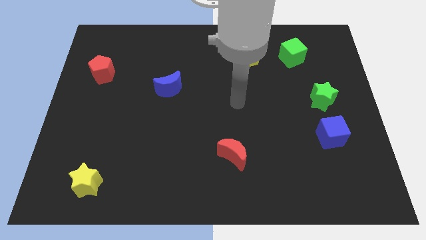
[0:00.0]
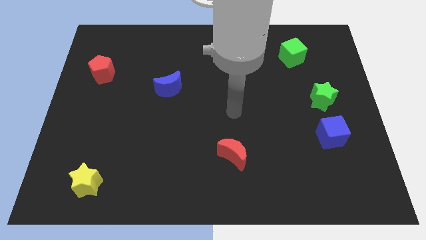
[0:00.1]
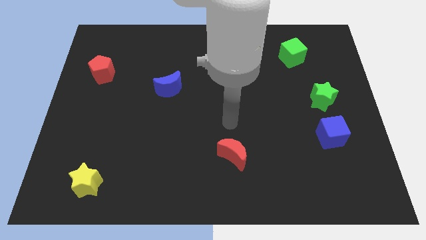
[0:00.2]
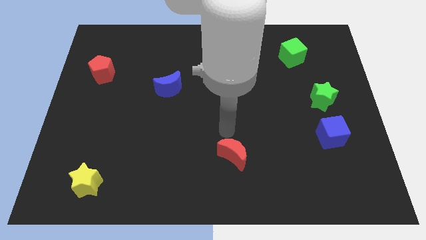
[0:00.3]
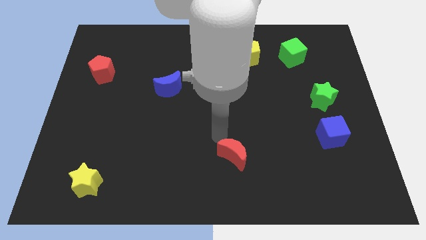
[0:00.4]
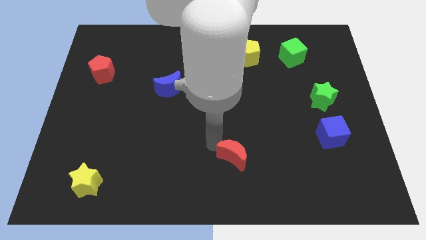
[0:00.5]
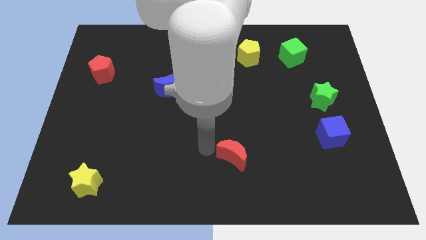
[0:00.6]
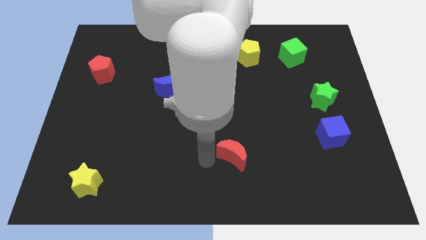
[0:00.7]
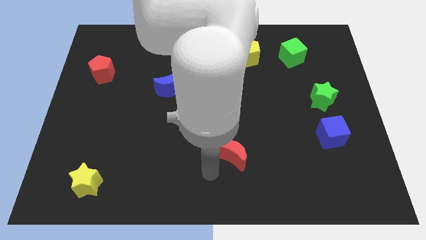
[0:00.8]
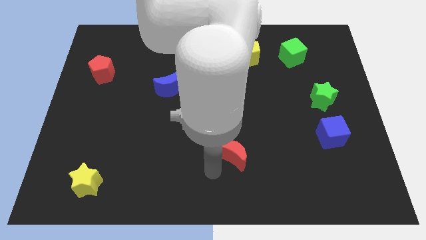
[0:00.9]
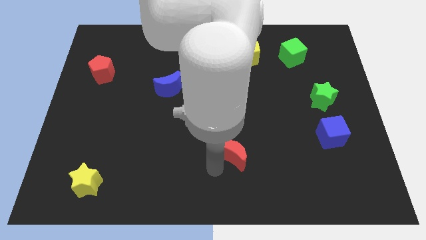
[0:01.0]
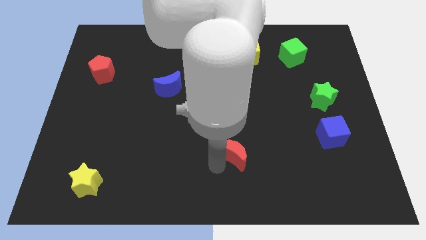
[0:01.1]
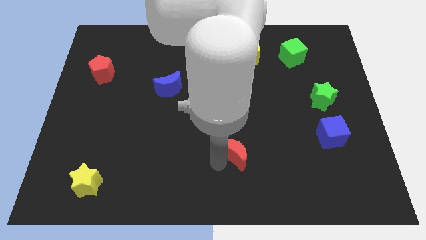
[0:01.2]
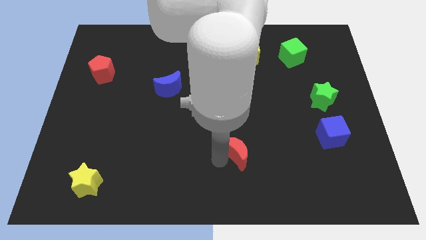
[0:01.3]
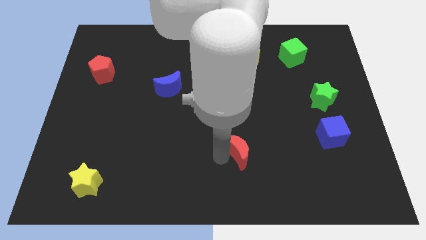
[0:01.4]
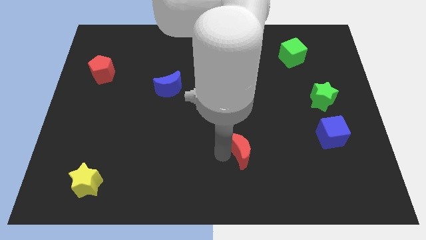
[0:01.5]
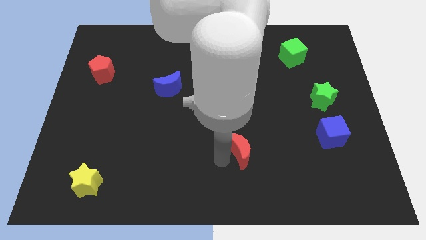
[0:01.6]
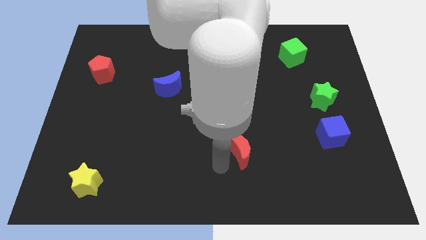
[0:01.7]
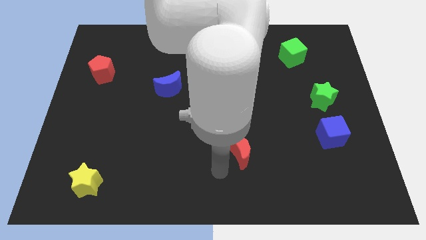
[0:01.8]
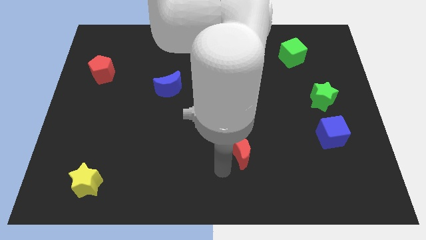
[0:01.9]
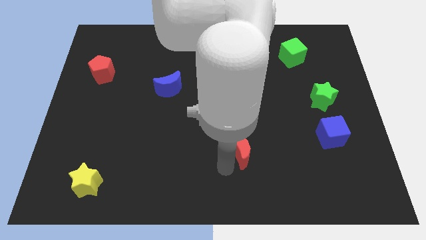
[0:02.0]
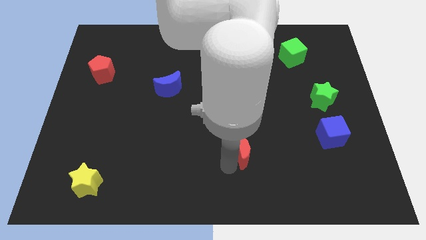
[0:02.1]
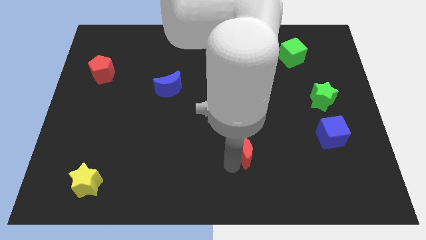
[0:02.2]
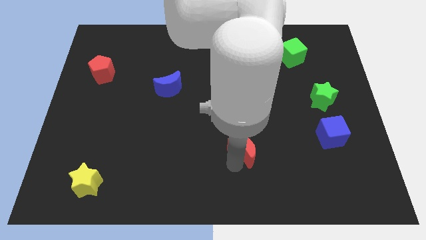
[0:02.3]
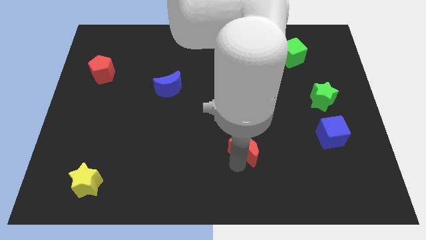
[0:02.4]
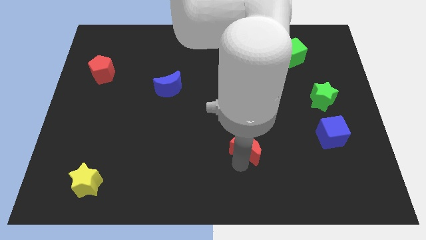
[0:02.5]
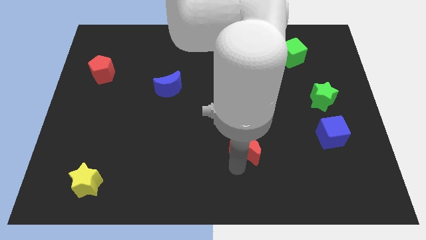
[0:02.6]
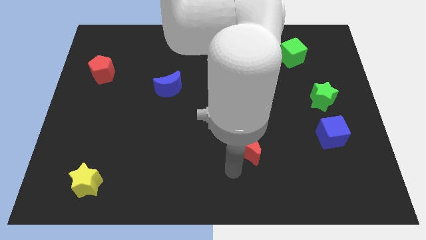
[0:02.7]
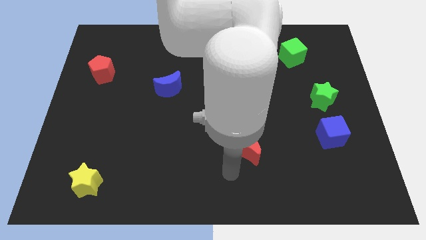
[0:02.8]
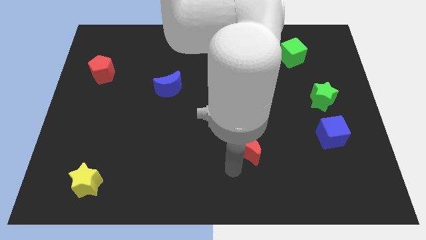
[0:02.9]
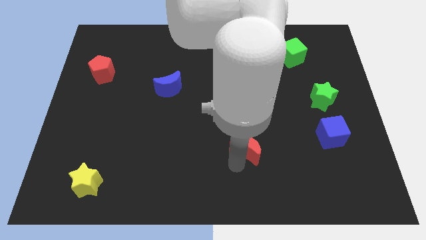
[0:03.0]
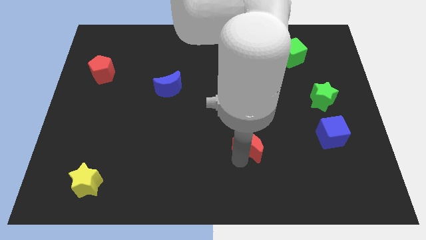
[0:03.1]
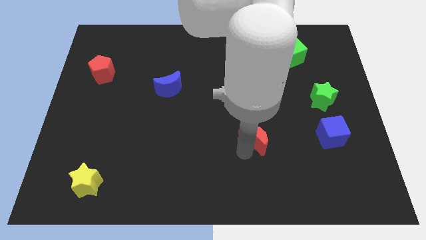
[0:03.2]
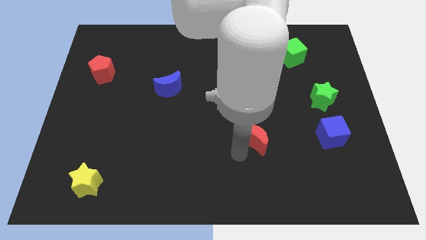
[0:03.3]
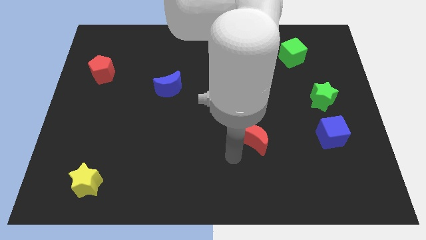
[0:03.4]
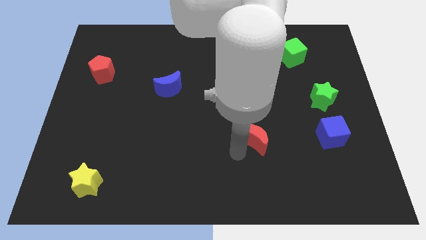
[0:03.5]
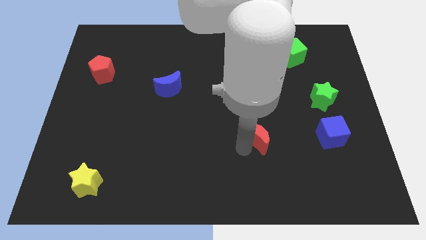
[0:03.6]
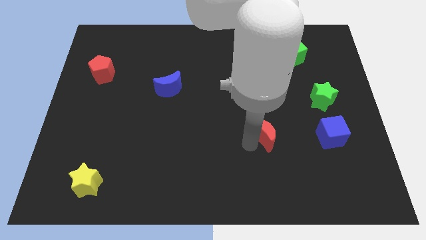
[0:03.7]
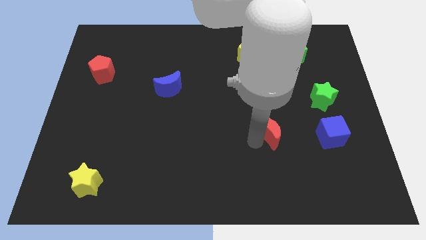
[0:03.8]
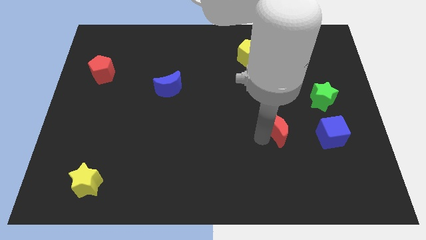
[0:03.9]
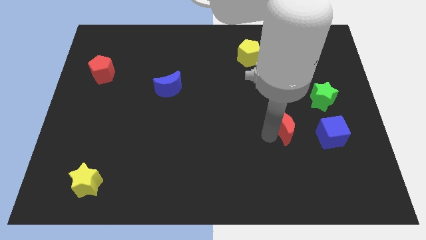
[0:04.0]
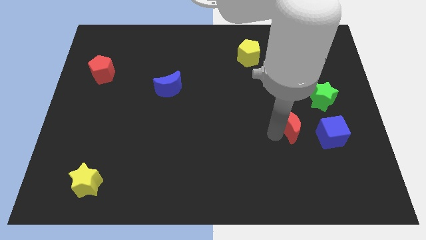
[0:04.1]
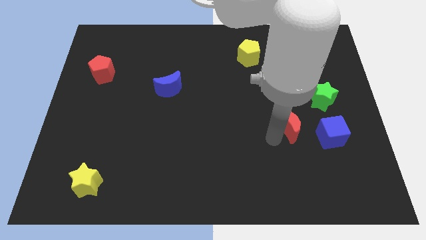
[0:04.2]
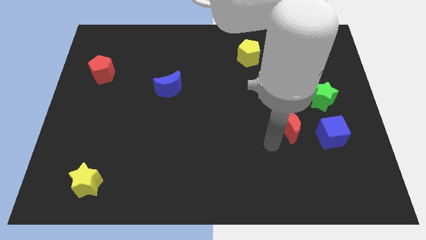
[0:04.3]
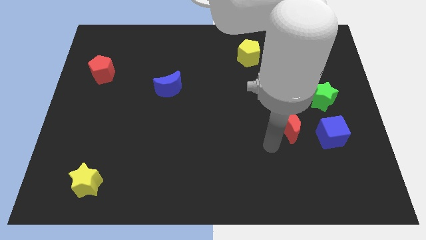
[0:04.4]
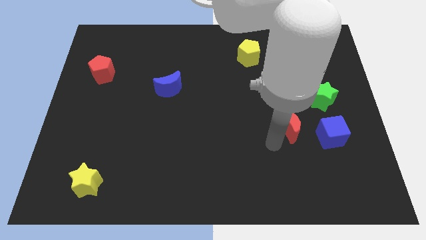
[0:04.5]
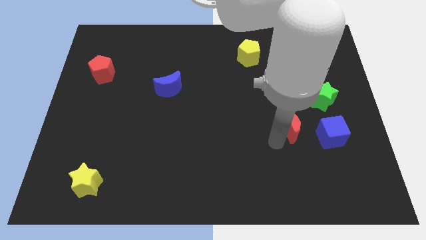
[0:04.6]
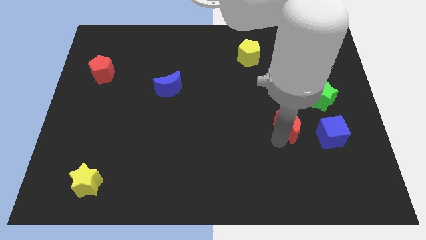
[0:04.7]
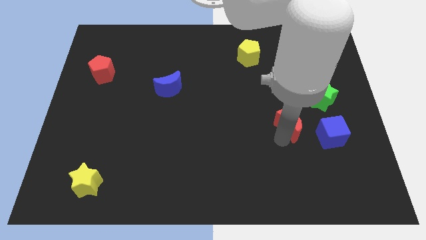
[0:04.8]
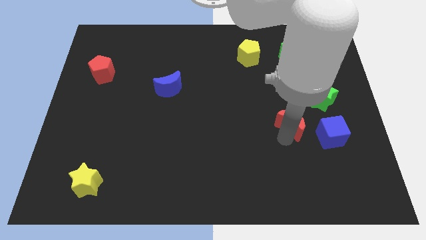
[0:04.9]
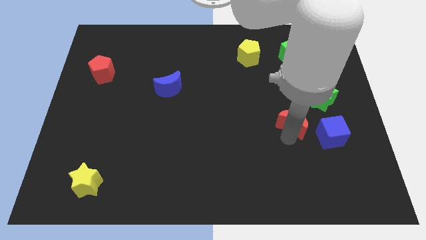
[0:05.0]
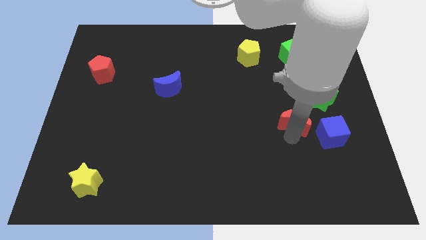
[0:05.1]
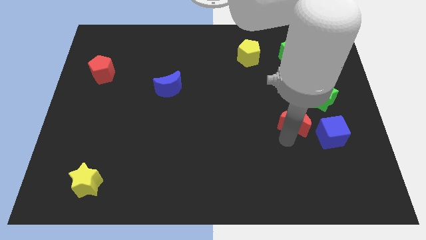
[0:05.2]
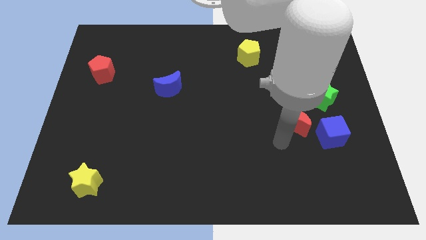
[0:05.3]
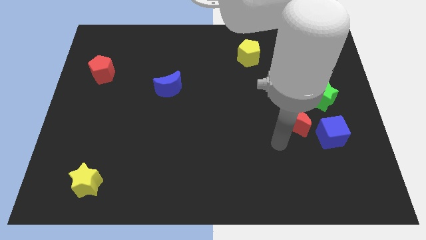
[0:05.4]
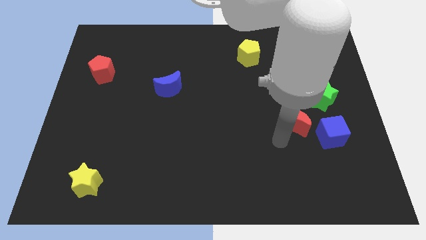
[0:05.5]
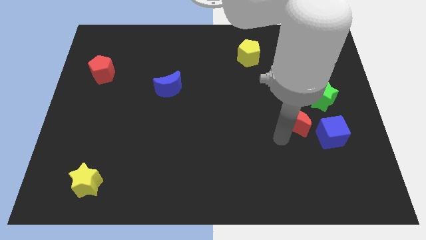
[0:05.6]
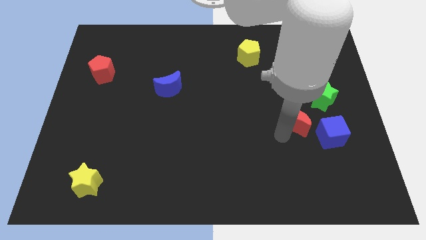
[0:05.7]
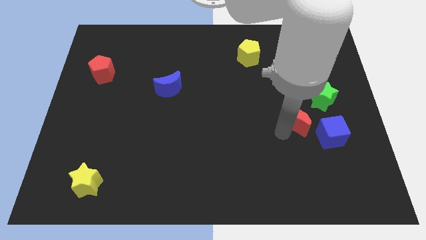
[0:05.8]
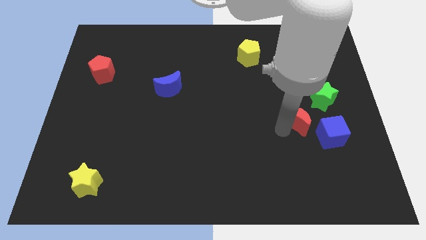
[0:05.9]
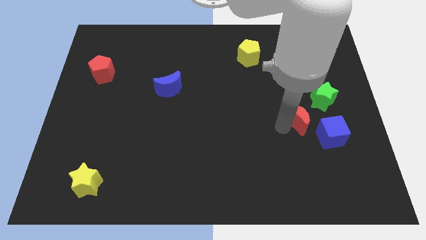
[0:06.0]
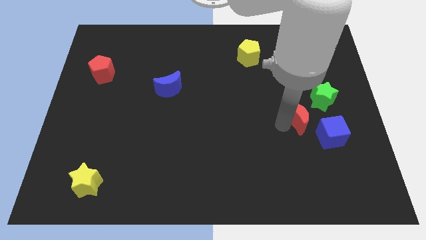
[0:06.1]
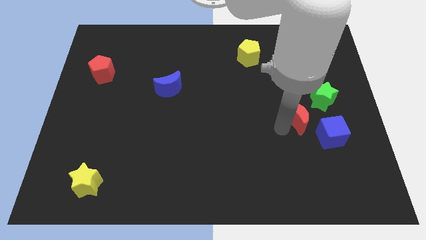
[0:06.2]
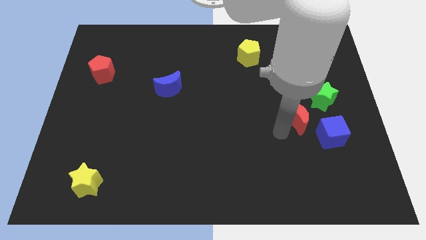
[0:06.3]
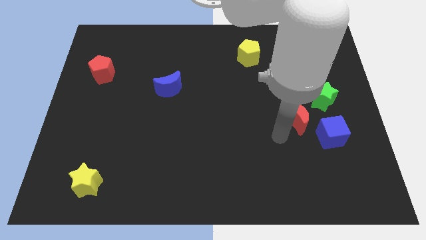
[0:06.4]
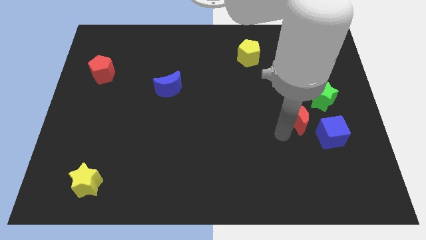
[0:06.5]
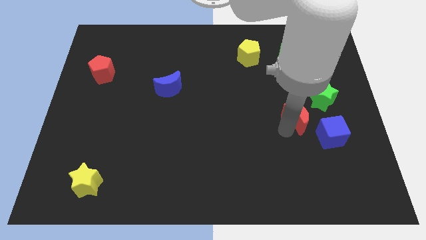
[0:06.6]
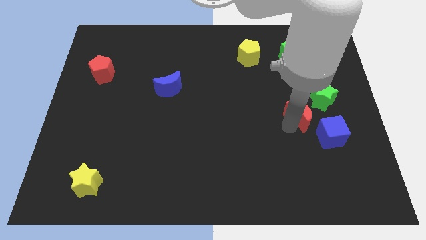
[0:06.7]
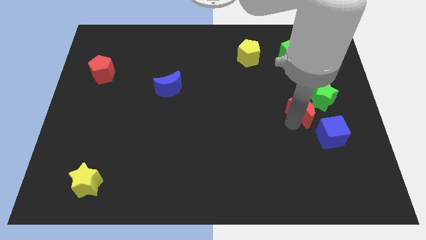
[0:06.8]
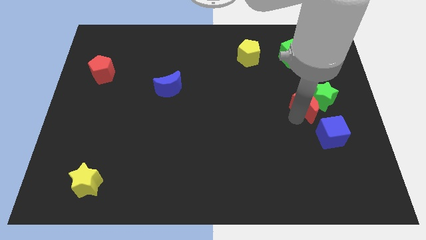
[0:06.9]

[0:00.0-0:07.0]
put the red moon close to the green star

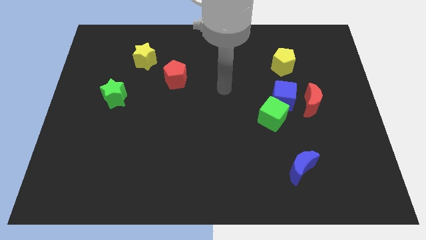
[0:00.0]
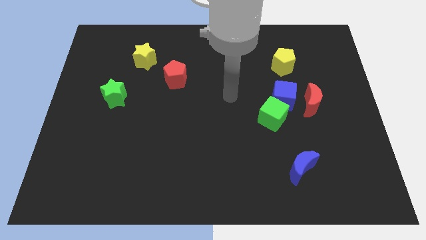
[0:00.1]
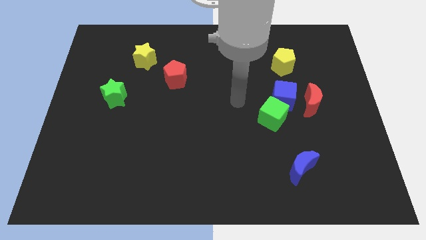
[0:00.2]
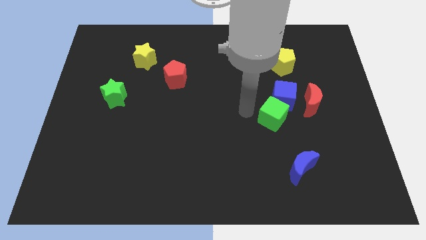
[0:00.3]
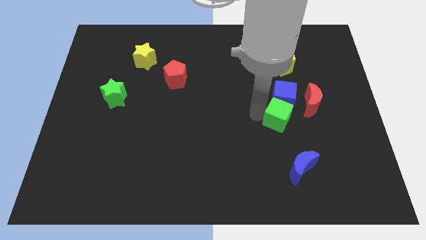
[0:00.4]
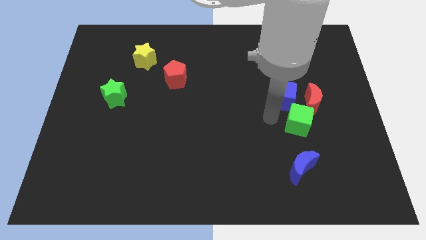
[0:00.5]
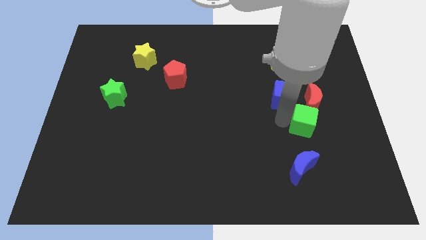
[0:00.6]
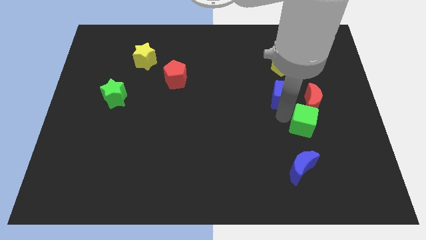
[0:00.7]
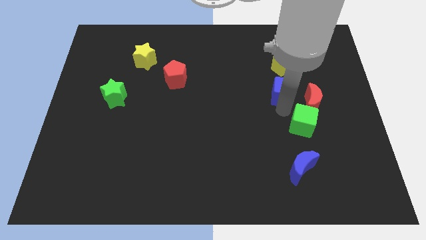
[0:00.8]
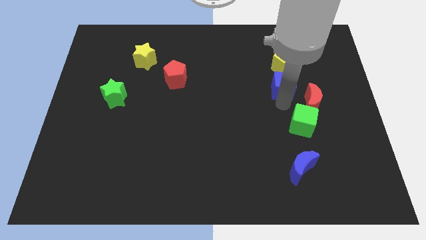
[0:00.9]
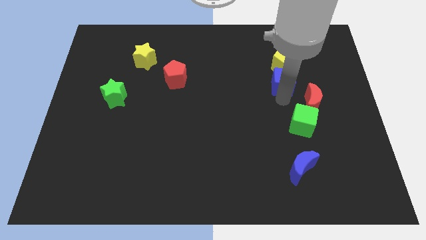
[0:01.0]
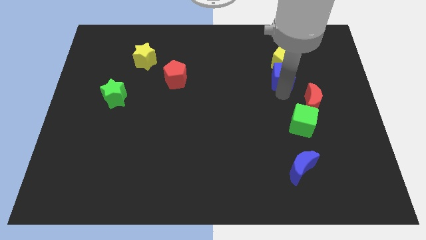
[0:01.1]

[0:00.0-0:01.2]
put the blue cube towards the yellow pentagon
